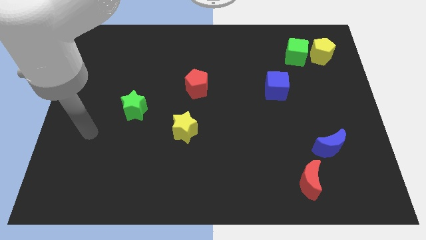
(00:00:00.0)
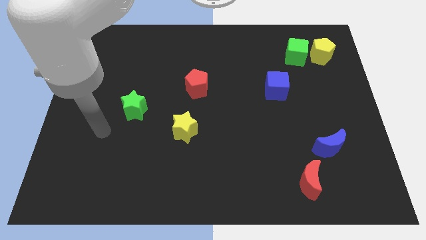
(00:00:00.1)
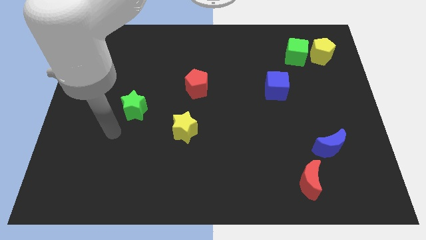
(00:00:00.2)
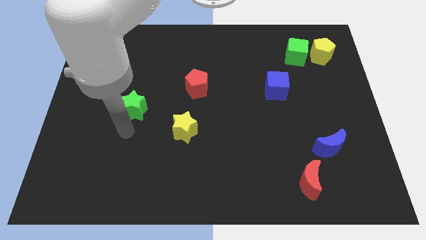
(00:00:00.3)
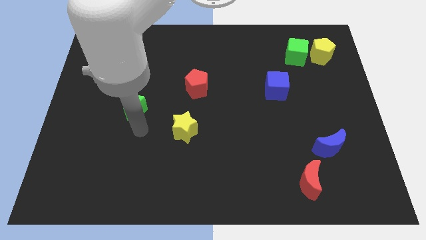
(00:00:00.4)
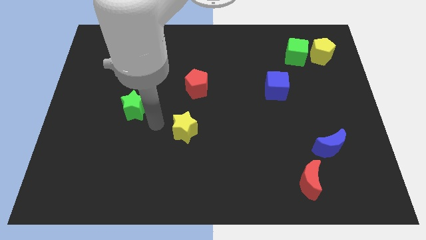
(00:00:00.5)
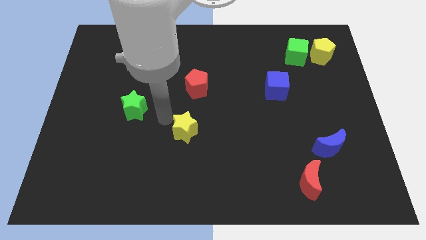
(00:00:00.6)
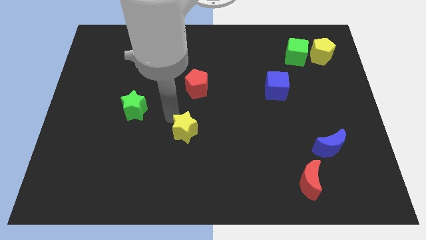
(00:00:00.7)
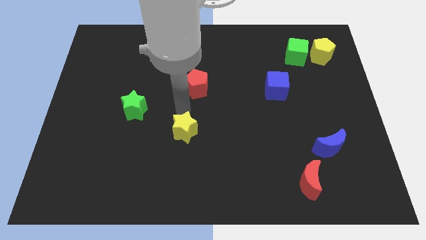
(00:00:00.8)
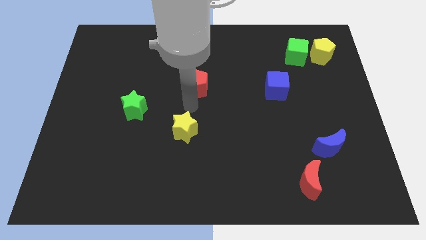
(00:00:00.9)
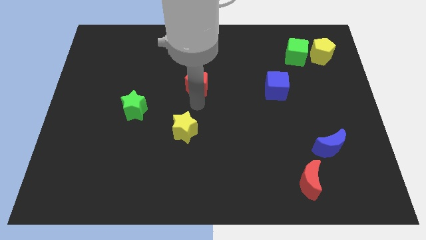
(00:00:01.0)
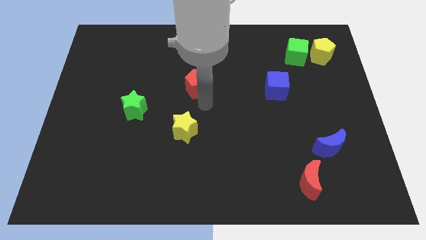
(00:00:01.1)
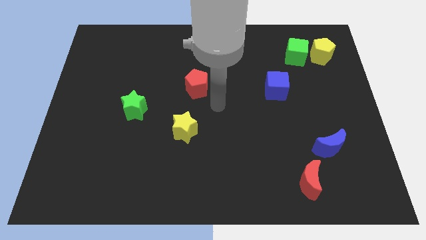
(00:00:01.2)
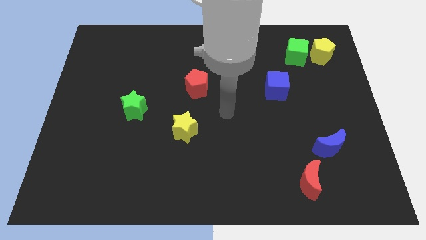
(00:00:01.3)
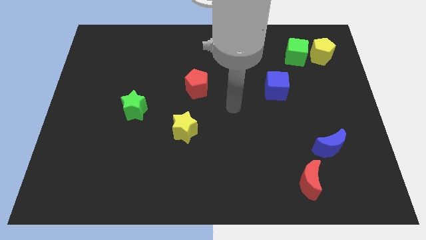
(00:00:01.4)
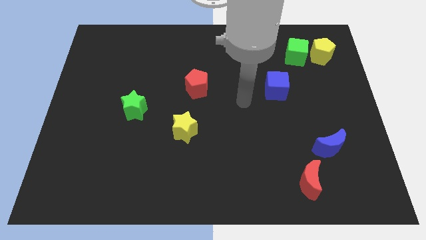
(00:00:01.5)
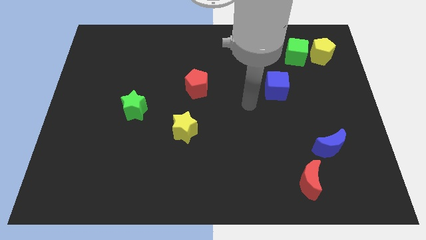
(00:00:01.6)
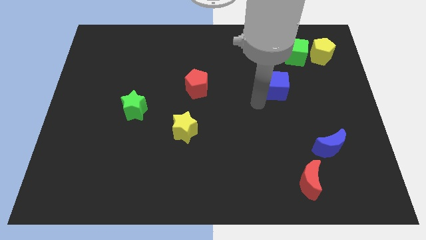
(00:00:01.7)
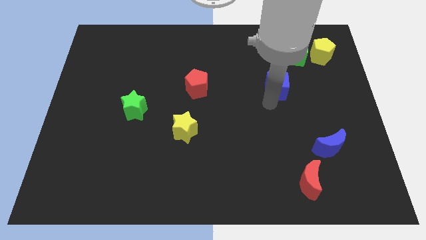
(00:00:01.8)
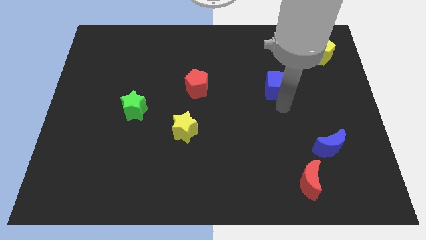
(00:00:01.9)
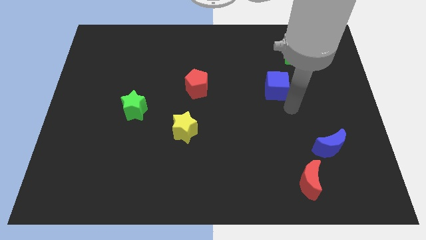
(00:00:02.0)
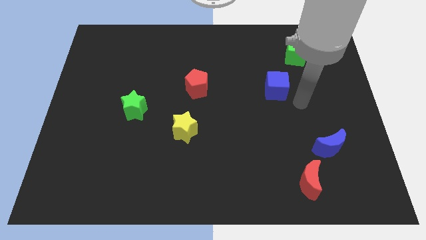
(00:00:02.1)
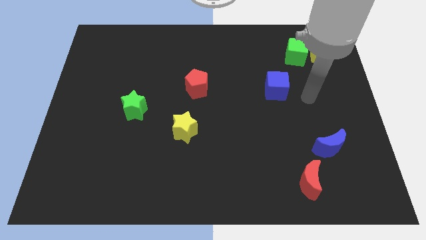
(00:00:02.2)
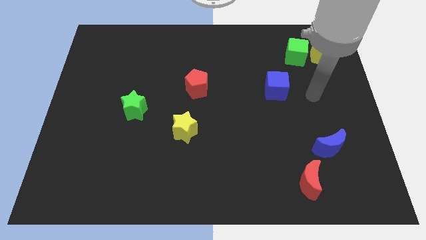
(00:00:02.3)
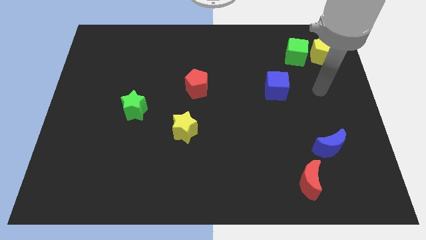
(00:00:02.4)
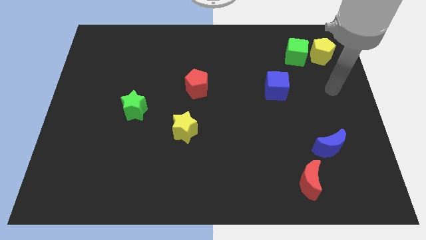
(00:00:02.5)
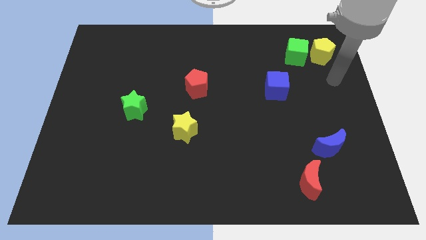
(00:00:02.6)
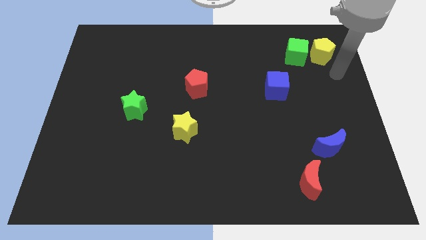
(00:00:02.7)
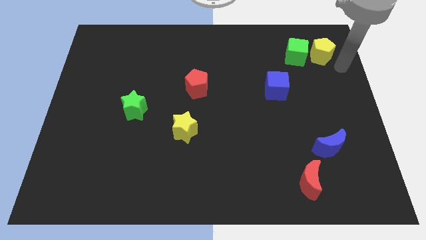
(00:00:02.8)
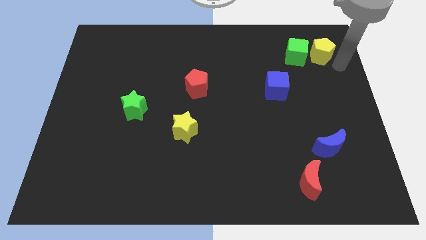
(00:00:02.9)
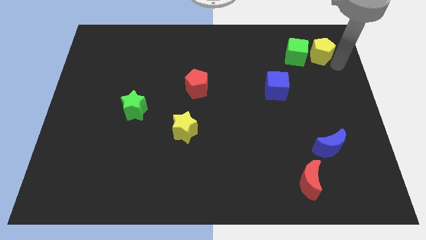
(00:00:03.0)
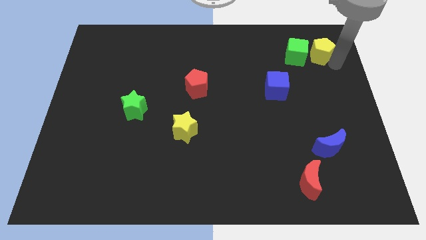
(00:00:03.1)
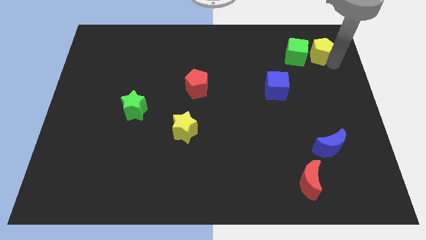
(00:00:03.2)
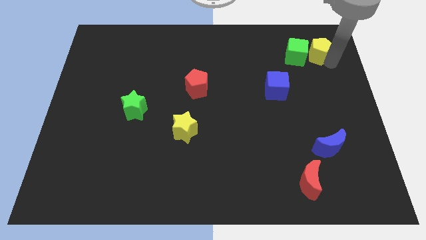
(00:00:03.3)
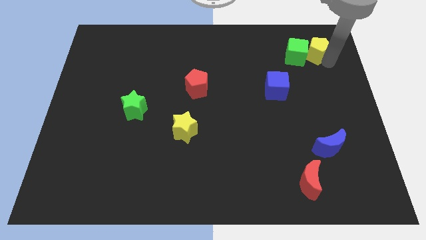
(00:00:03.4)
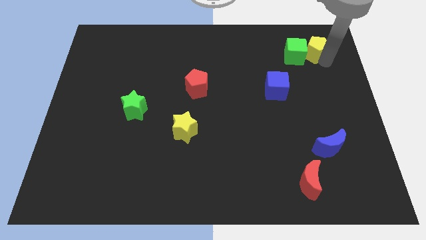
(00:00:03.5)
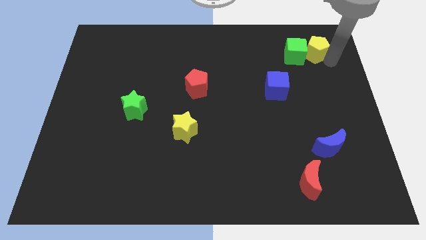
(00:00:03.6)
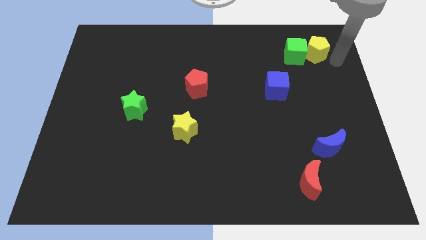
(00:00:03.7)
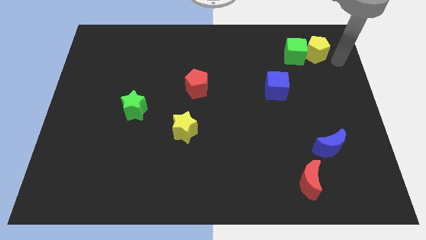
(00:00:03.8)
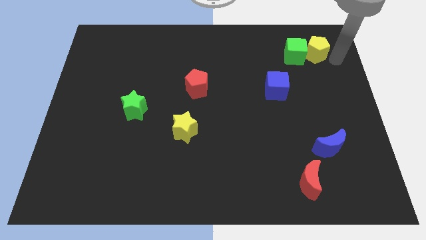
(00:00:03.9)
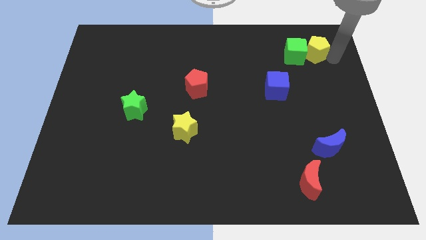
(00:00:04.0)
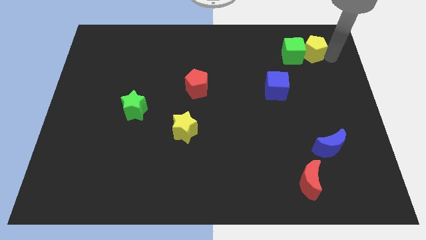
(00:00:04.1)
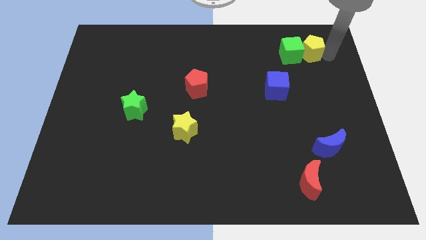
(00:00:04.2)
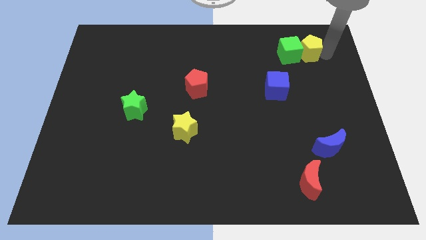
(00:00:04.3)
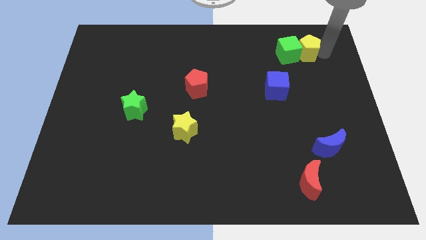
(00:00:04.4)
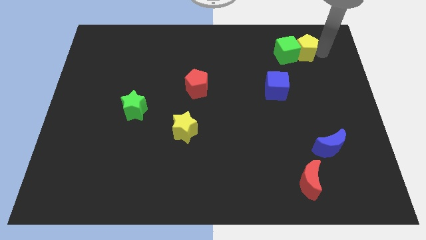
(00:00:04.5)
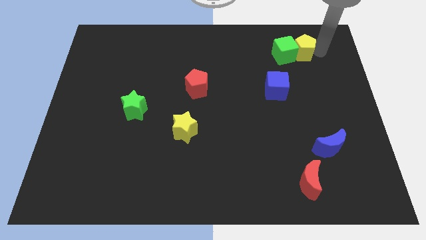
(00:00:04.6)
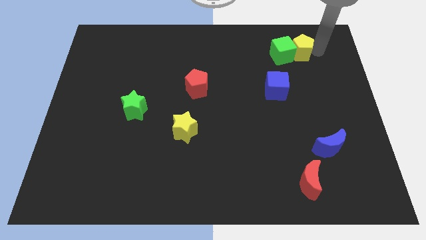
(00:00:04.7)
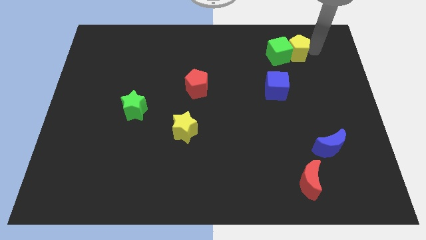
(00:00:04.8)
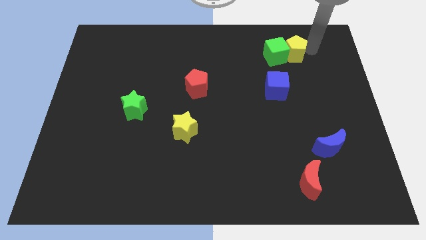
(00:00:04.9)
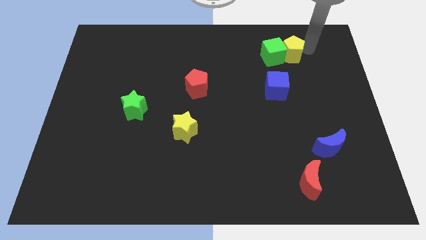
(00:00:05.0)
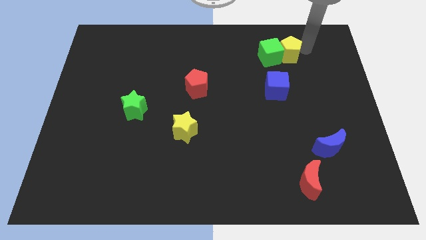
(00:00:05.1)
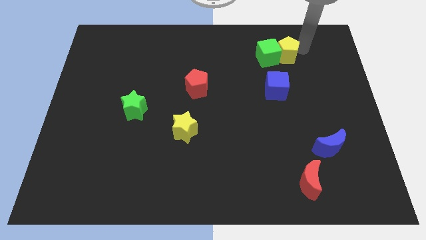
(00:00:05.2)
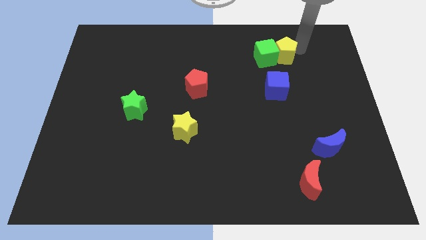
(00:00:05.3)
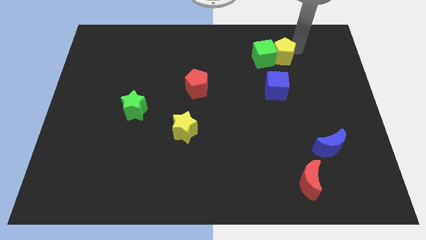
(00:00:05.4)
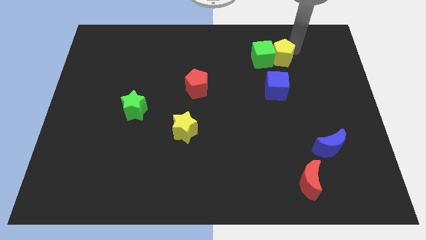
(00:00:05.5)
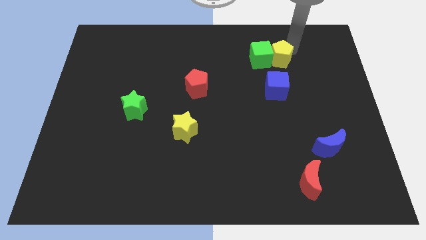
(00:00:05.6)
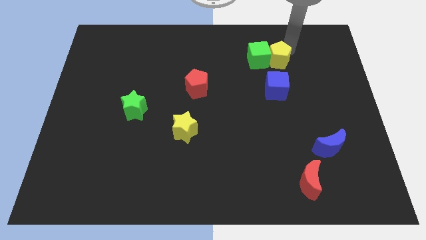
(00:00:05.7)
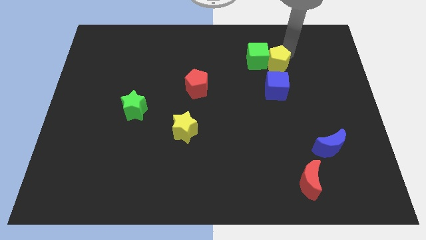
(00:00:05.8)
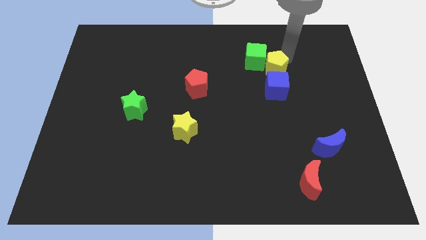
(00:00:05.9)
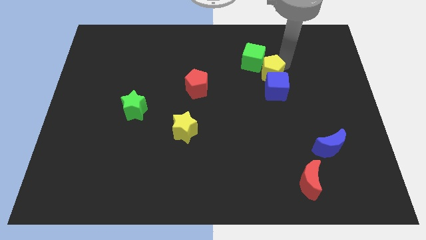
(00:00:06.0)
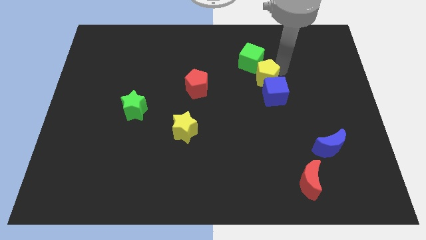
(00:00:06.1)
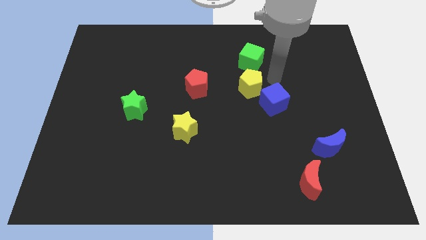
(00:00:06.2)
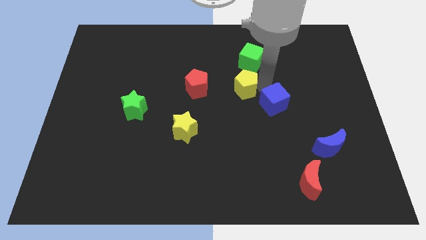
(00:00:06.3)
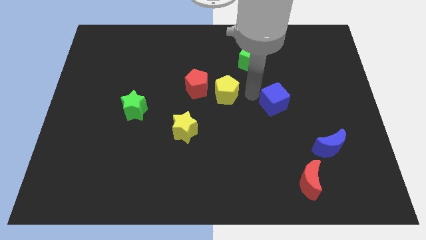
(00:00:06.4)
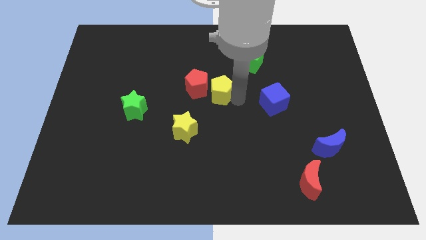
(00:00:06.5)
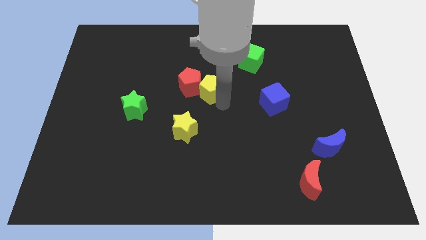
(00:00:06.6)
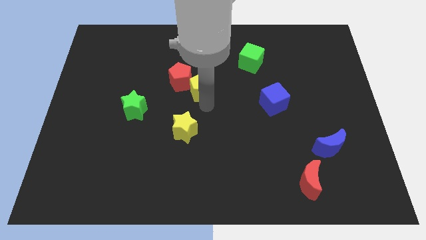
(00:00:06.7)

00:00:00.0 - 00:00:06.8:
push the yellow pentagon to the left

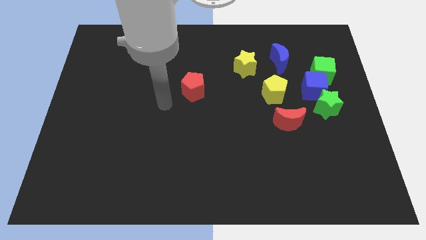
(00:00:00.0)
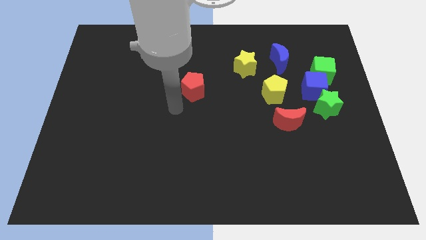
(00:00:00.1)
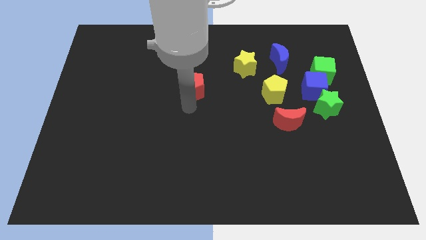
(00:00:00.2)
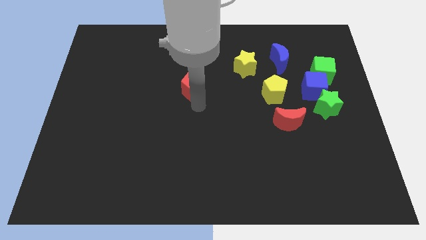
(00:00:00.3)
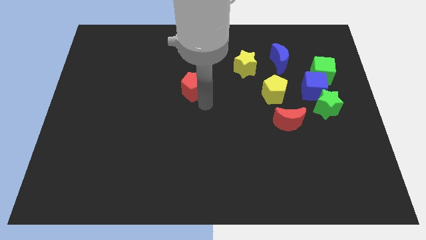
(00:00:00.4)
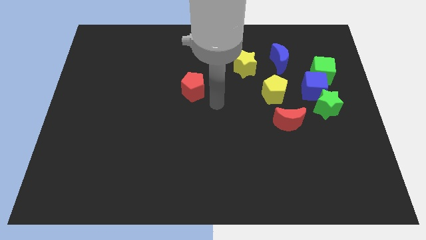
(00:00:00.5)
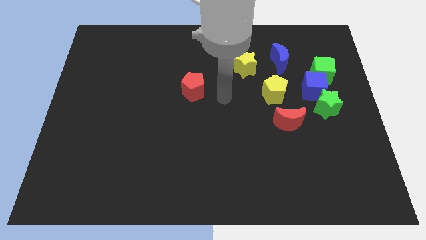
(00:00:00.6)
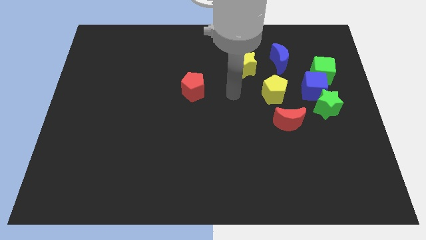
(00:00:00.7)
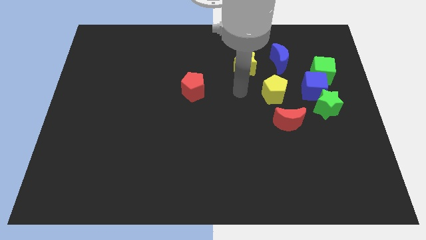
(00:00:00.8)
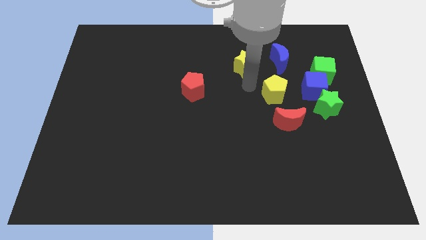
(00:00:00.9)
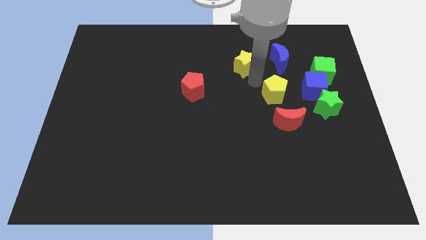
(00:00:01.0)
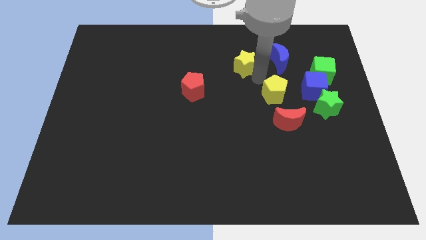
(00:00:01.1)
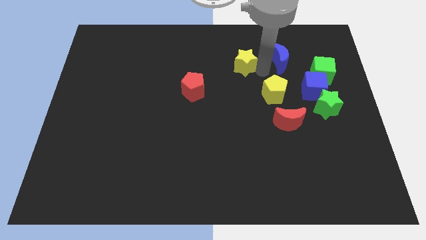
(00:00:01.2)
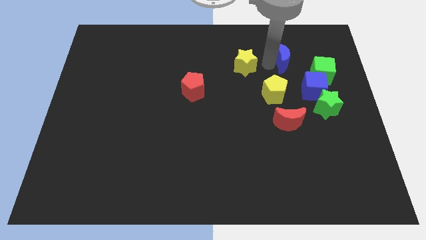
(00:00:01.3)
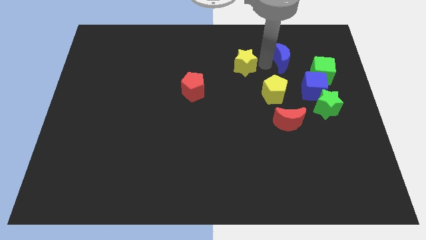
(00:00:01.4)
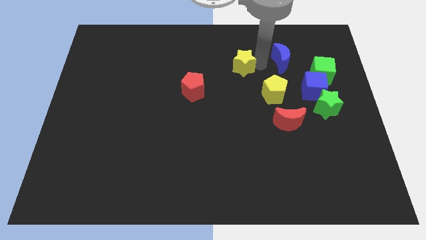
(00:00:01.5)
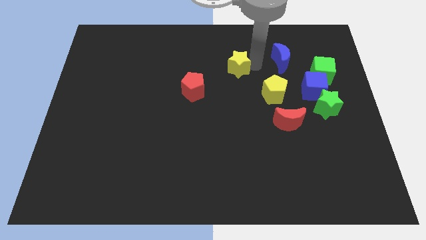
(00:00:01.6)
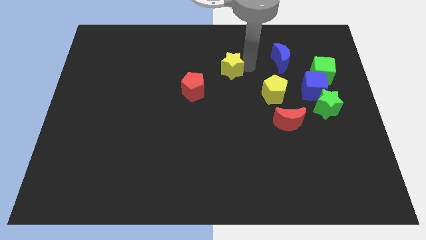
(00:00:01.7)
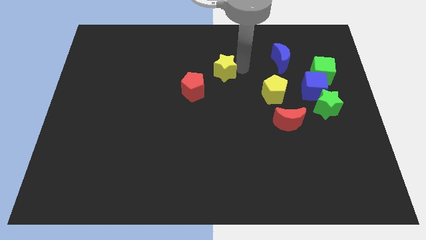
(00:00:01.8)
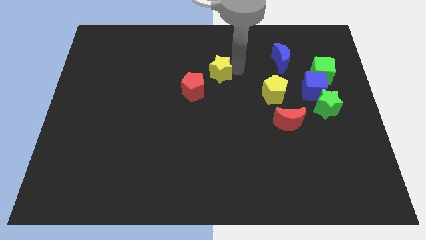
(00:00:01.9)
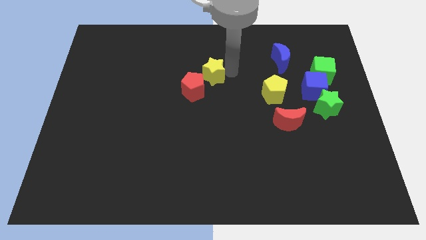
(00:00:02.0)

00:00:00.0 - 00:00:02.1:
slide the yellow star to the left somewhat
